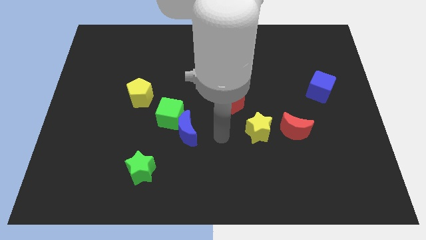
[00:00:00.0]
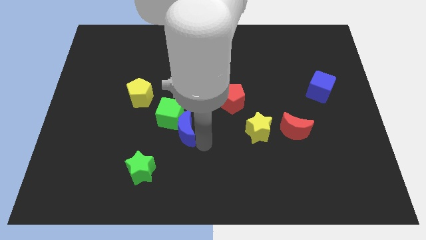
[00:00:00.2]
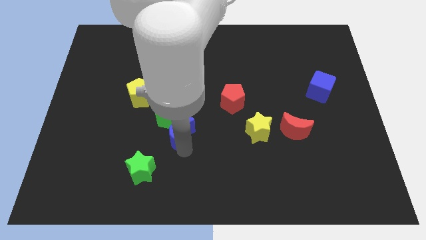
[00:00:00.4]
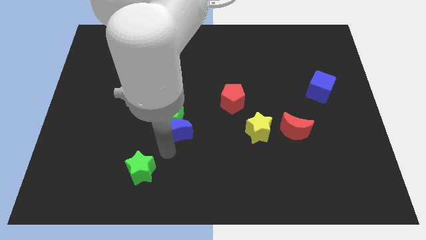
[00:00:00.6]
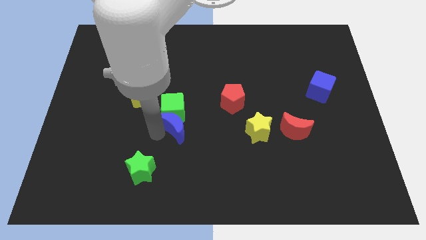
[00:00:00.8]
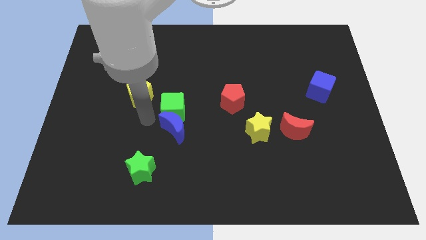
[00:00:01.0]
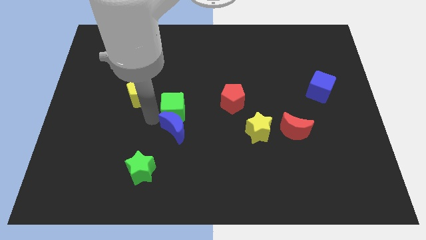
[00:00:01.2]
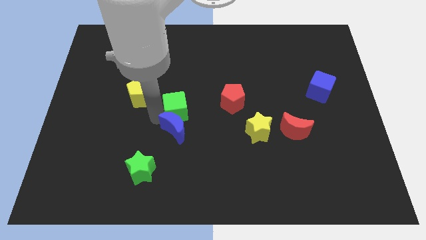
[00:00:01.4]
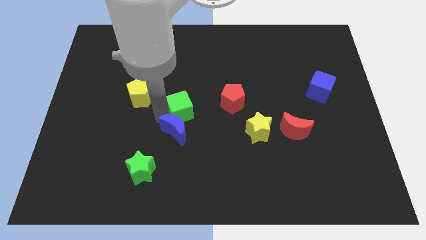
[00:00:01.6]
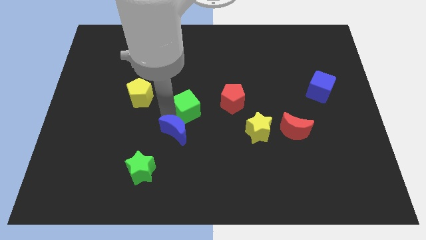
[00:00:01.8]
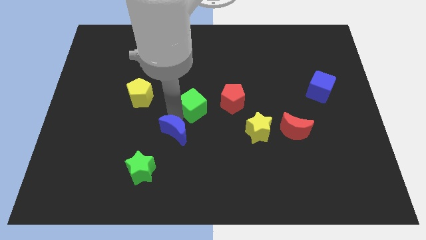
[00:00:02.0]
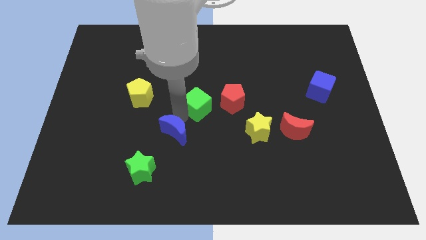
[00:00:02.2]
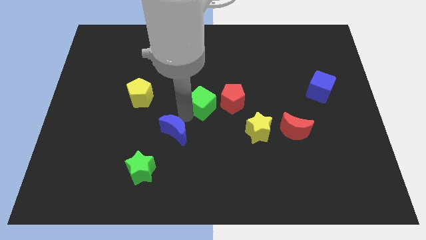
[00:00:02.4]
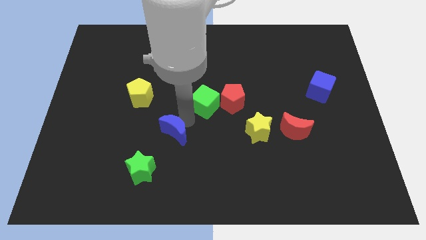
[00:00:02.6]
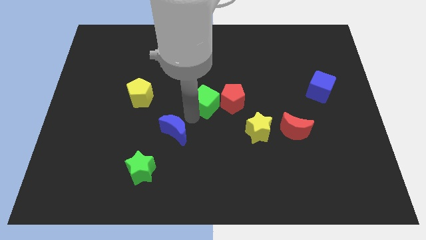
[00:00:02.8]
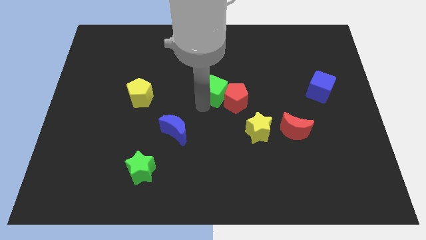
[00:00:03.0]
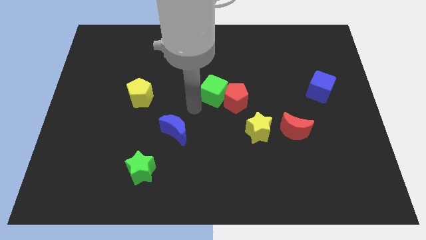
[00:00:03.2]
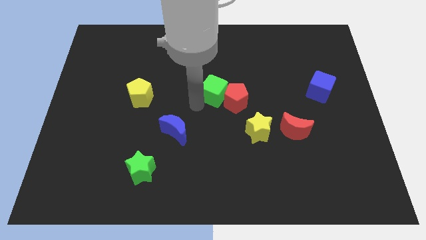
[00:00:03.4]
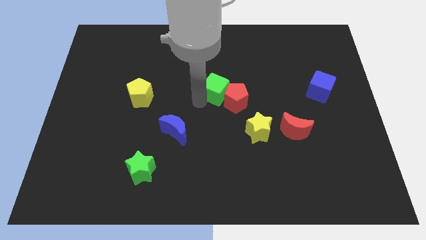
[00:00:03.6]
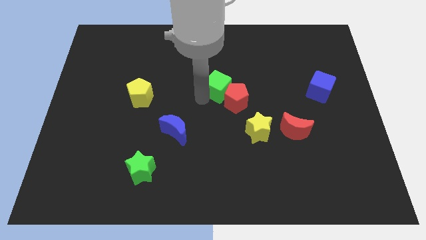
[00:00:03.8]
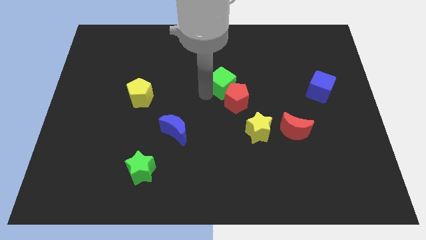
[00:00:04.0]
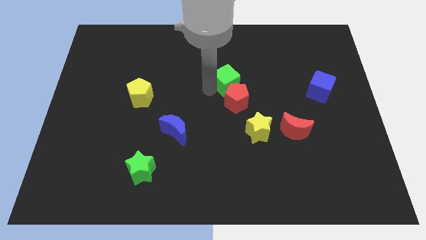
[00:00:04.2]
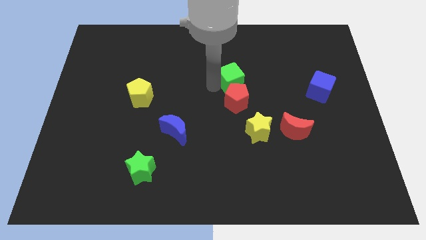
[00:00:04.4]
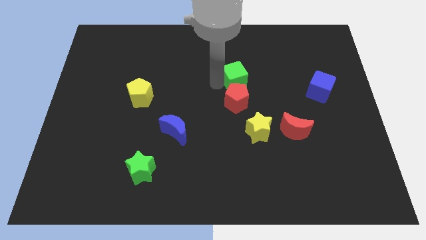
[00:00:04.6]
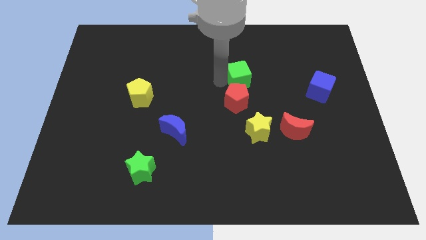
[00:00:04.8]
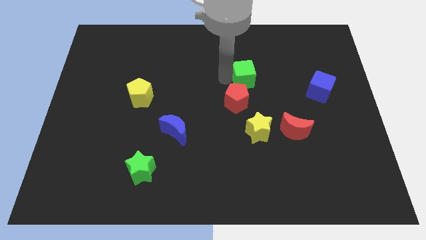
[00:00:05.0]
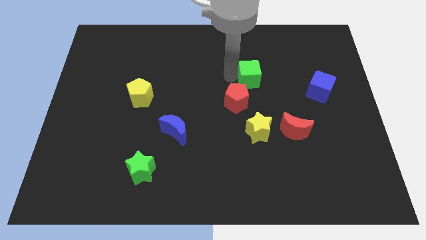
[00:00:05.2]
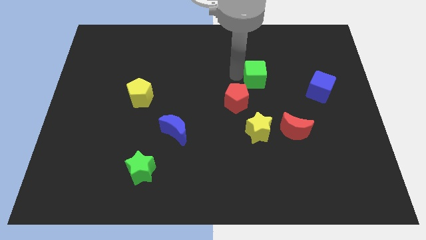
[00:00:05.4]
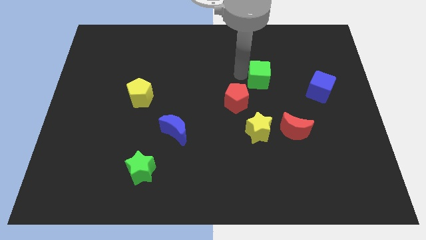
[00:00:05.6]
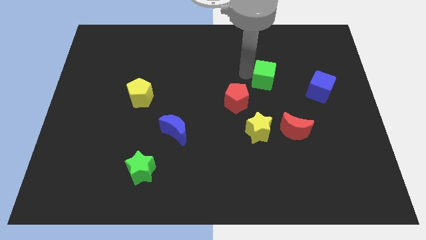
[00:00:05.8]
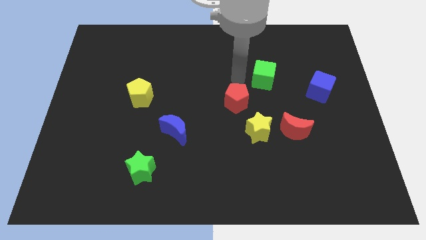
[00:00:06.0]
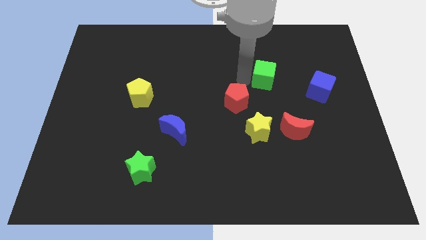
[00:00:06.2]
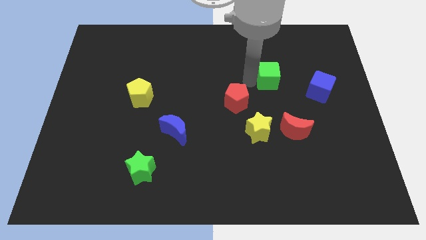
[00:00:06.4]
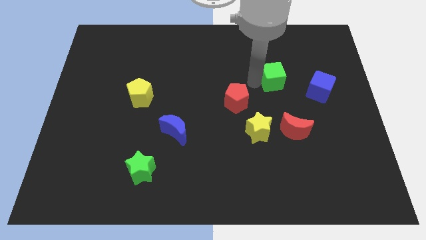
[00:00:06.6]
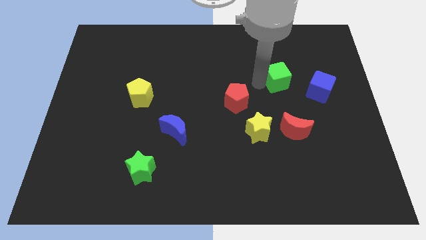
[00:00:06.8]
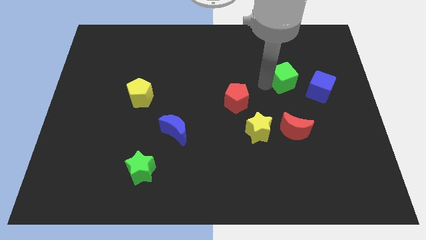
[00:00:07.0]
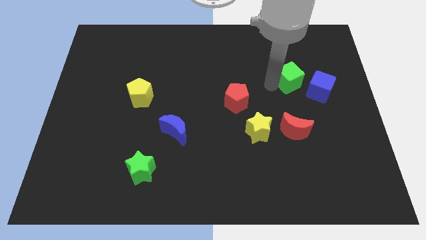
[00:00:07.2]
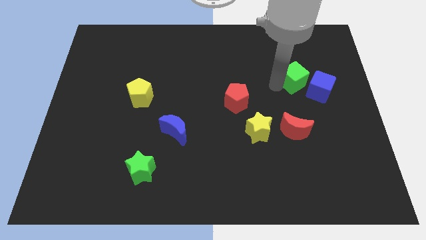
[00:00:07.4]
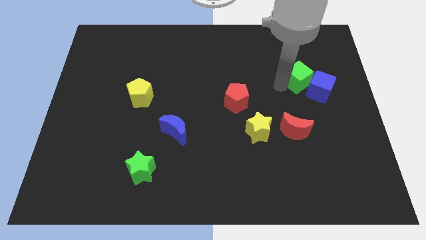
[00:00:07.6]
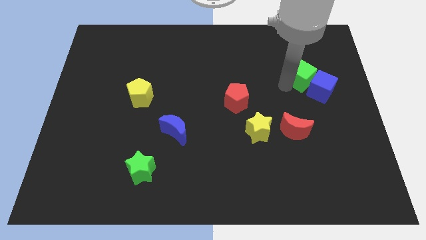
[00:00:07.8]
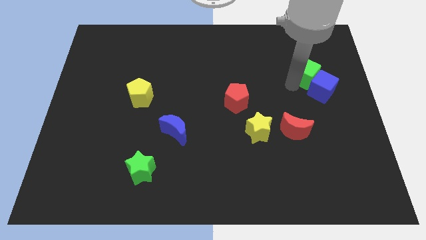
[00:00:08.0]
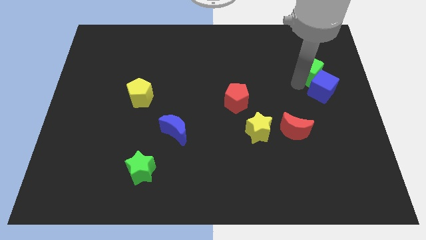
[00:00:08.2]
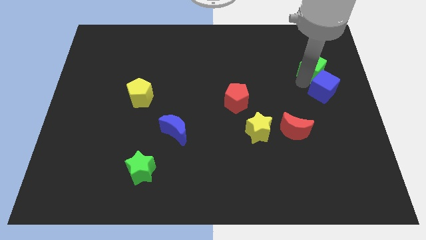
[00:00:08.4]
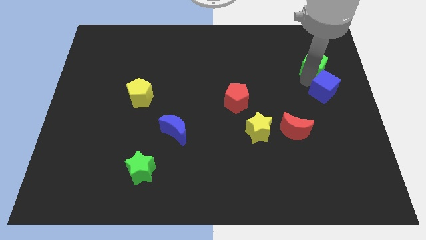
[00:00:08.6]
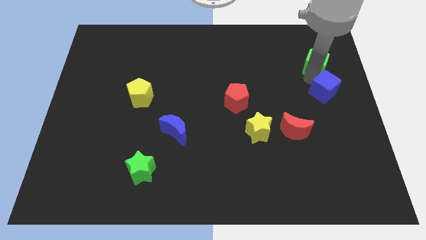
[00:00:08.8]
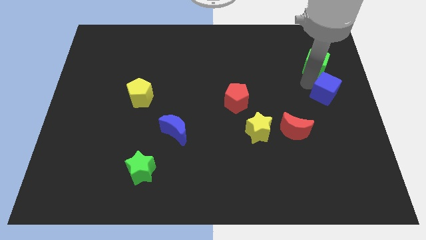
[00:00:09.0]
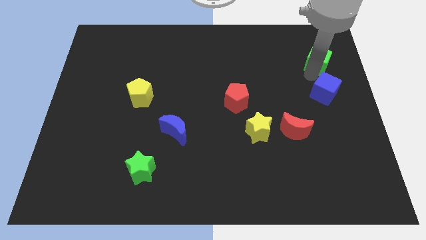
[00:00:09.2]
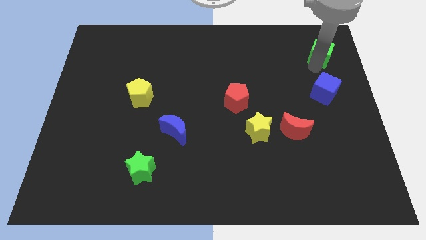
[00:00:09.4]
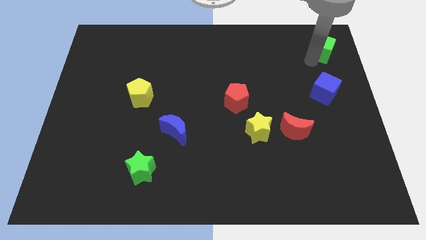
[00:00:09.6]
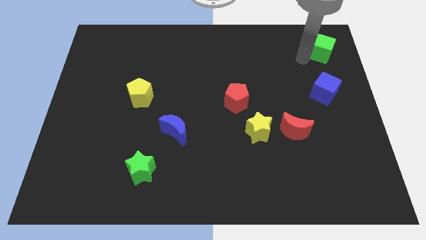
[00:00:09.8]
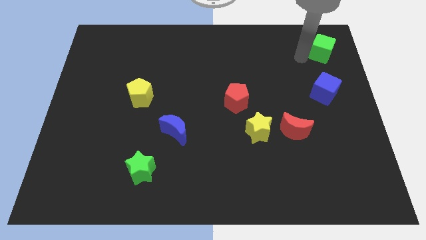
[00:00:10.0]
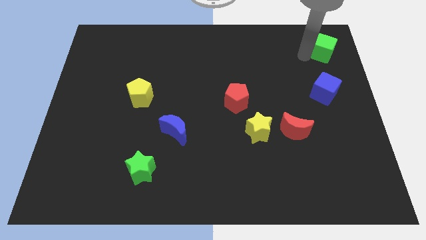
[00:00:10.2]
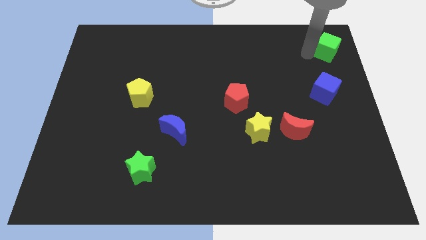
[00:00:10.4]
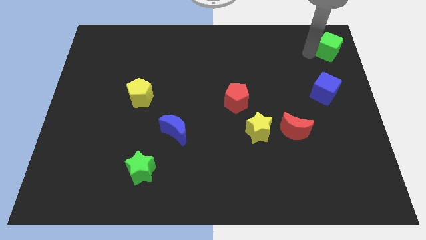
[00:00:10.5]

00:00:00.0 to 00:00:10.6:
push the green cube to the top right
